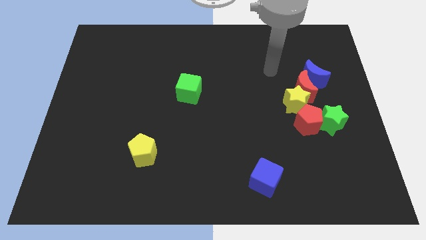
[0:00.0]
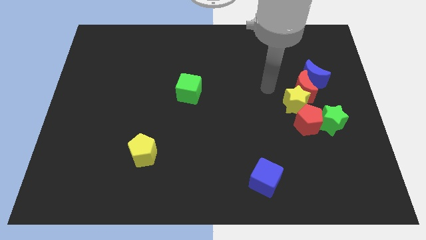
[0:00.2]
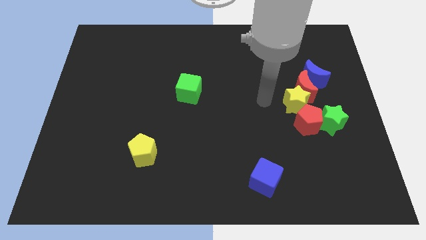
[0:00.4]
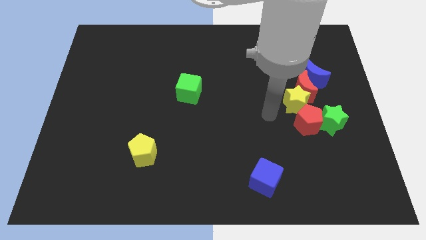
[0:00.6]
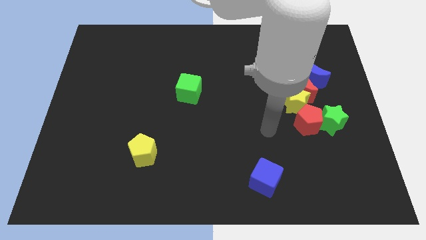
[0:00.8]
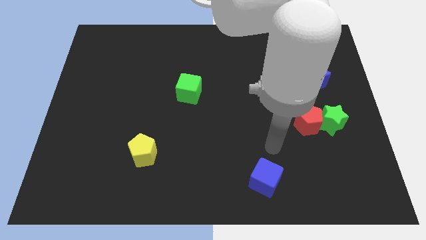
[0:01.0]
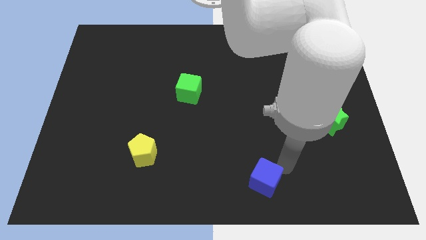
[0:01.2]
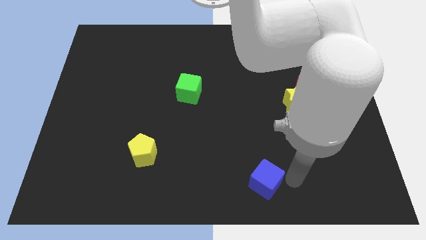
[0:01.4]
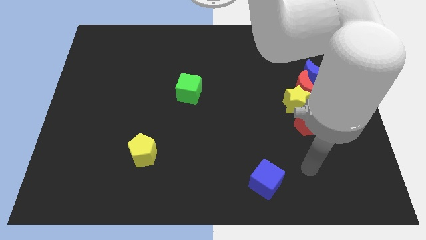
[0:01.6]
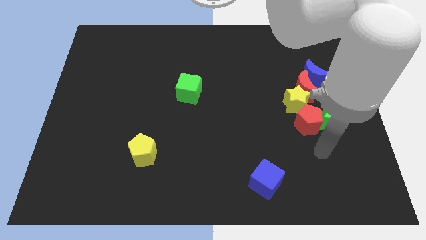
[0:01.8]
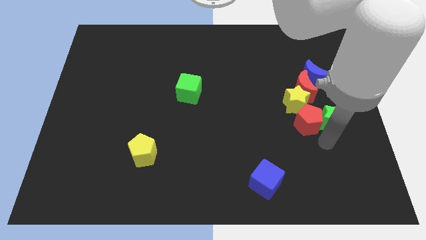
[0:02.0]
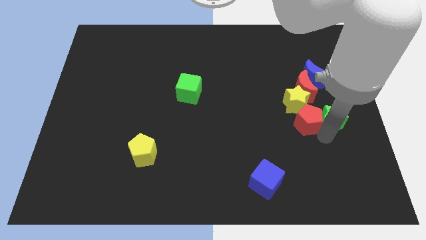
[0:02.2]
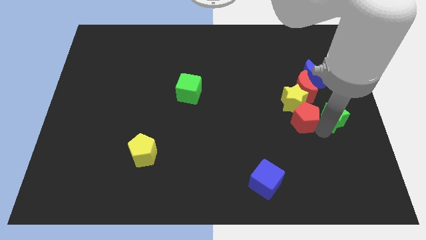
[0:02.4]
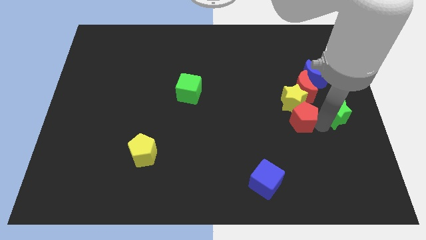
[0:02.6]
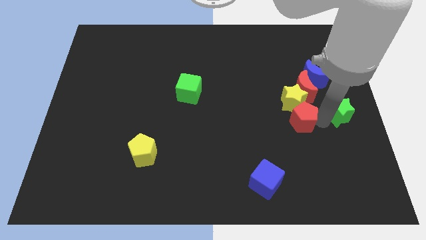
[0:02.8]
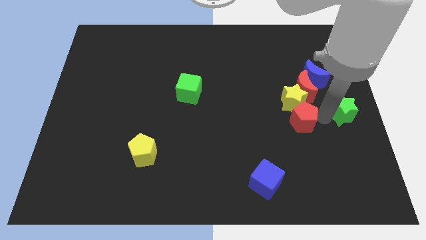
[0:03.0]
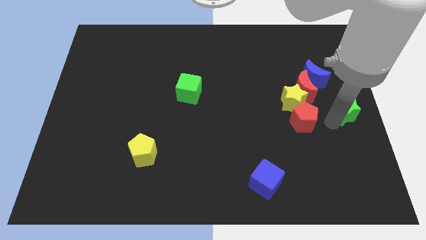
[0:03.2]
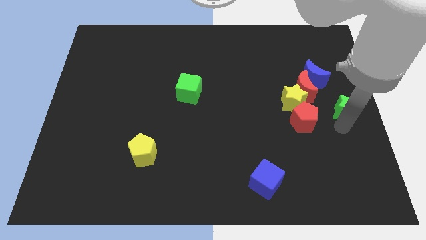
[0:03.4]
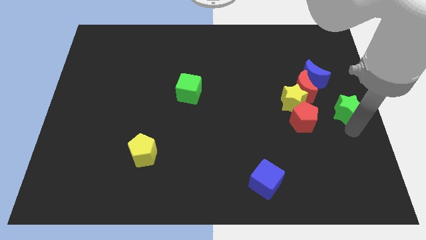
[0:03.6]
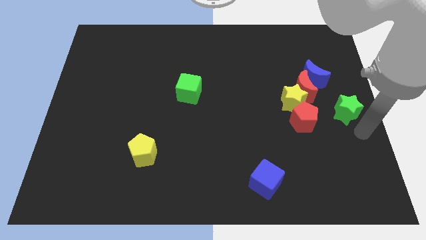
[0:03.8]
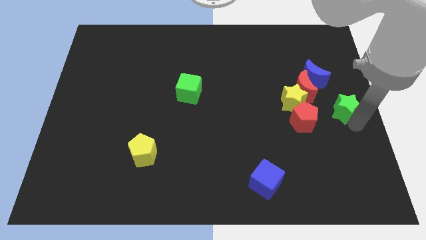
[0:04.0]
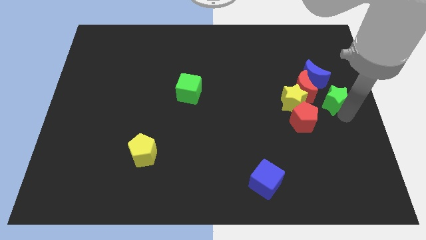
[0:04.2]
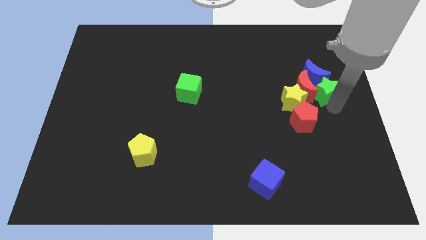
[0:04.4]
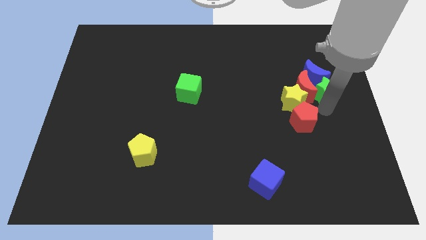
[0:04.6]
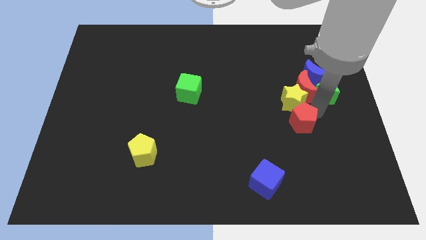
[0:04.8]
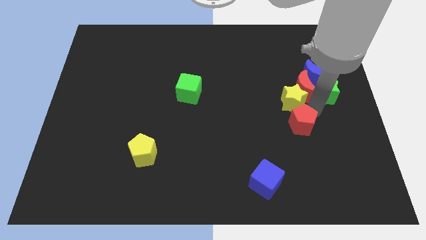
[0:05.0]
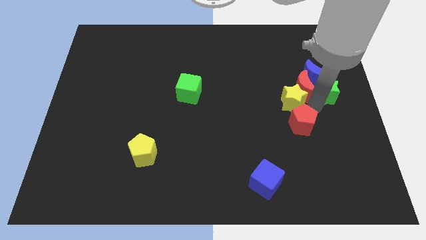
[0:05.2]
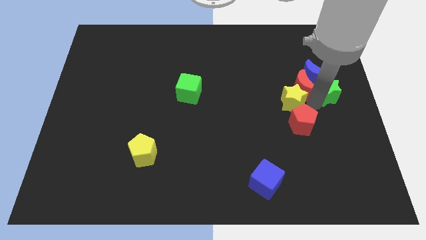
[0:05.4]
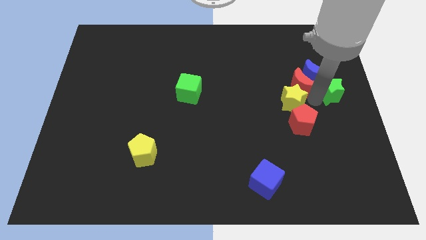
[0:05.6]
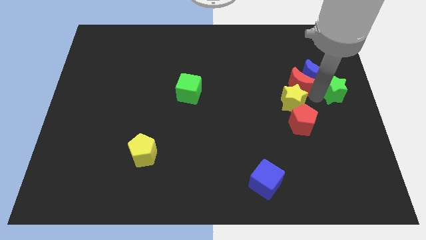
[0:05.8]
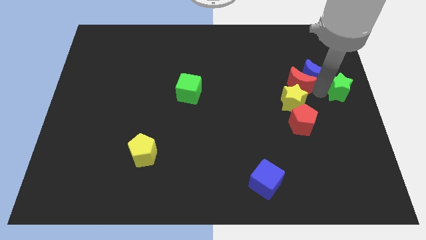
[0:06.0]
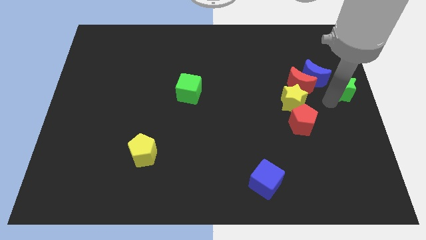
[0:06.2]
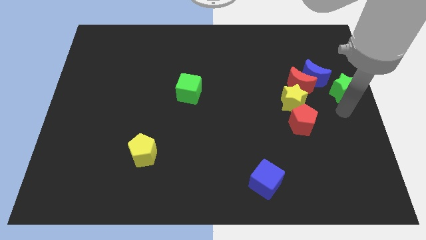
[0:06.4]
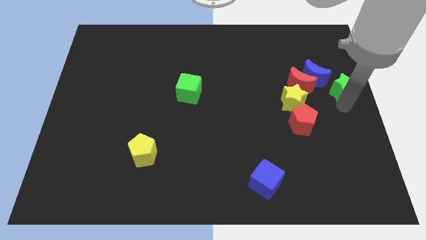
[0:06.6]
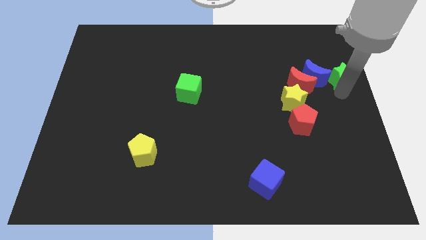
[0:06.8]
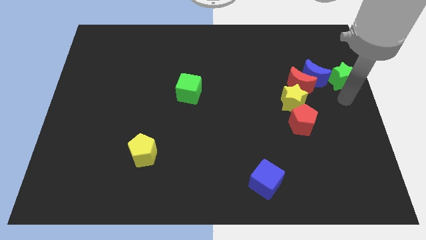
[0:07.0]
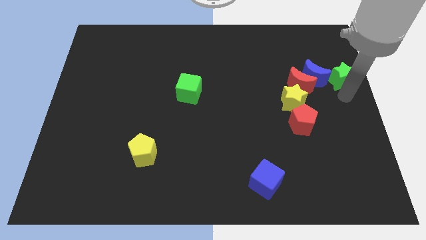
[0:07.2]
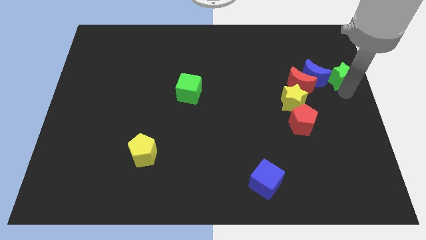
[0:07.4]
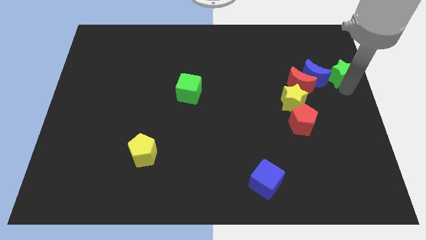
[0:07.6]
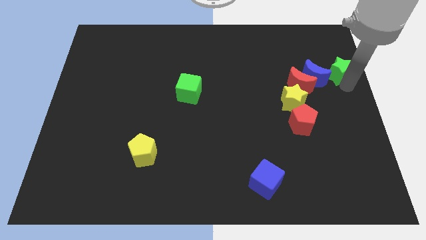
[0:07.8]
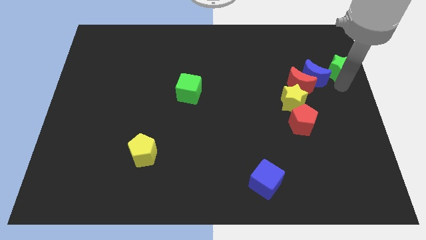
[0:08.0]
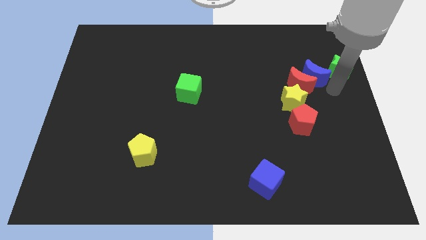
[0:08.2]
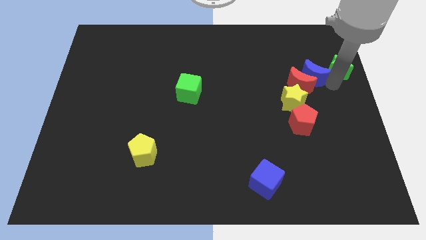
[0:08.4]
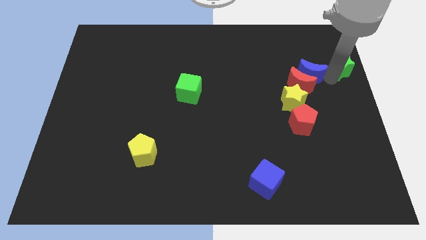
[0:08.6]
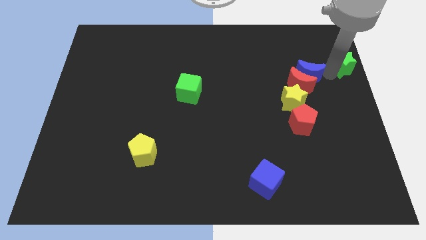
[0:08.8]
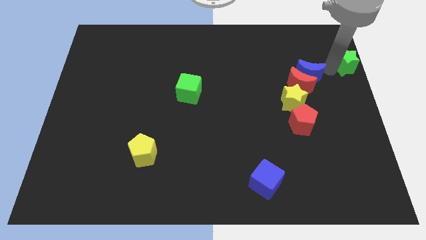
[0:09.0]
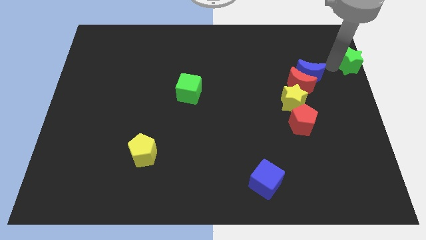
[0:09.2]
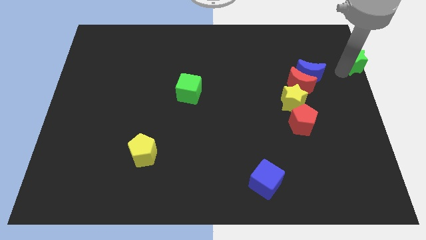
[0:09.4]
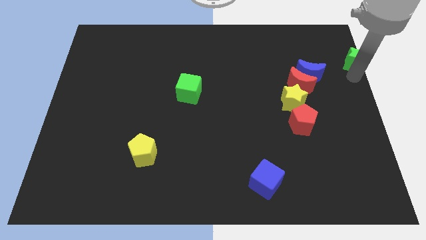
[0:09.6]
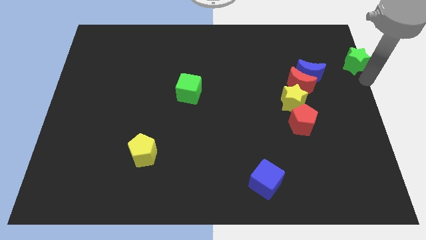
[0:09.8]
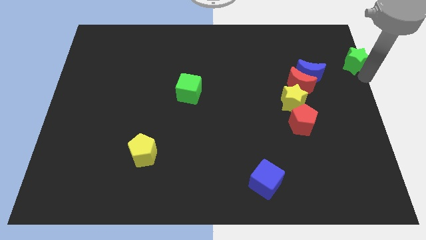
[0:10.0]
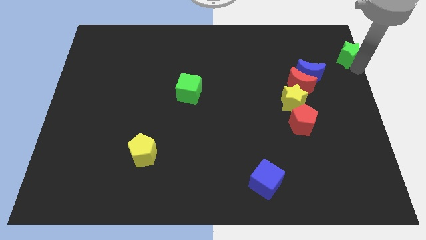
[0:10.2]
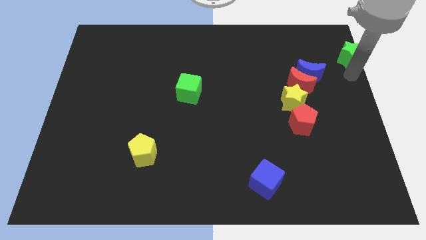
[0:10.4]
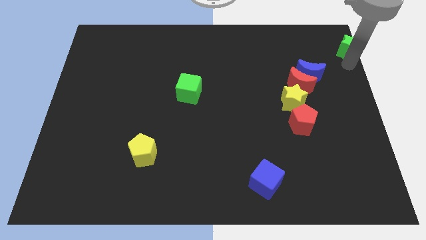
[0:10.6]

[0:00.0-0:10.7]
slide the green star to the top right

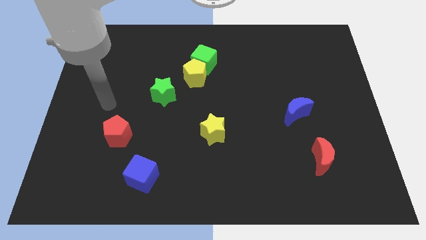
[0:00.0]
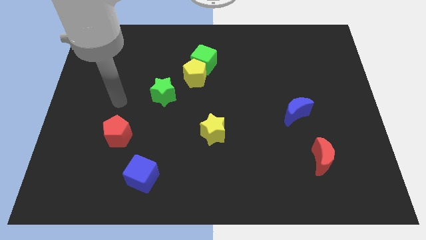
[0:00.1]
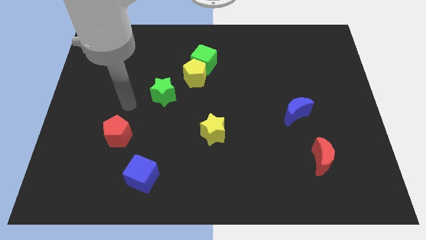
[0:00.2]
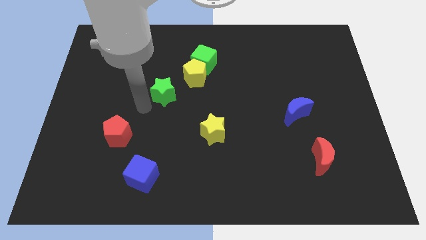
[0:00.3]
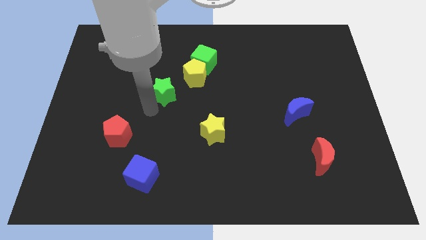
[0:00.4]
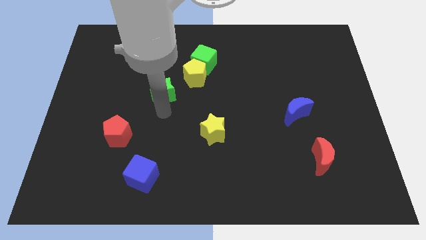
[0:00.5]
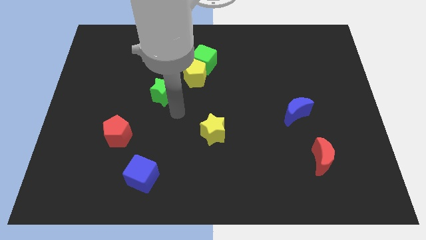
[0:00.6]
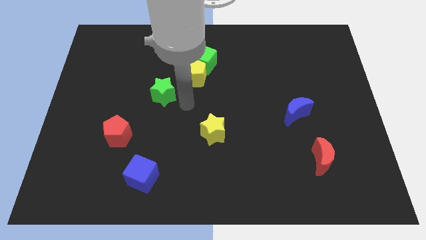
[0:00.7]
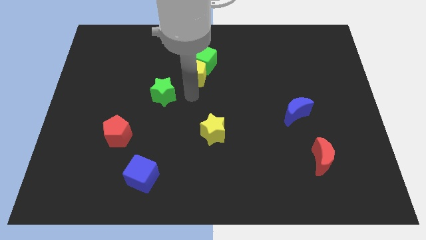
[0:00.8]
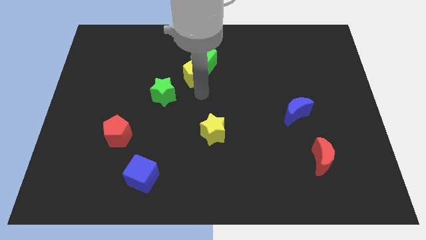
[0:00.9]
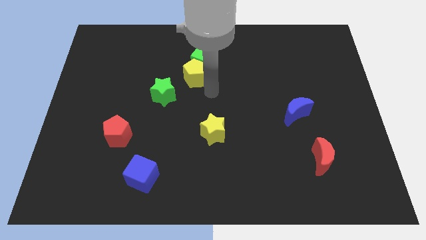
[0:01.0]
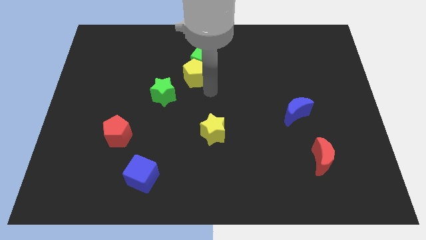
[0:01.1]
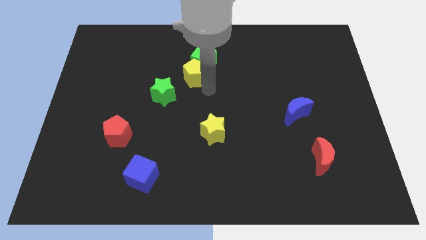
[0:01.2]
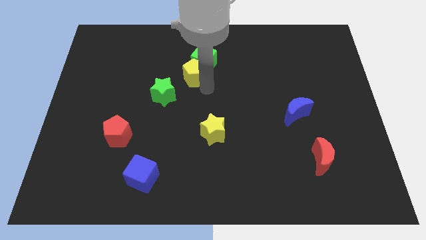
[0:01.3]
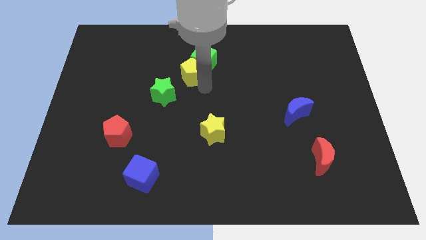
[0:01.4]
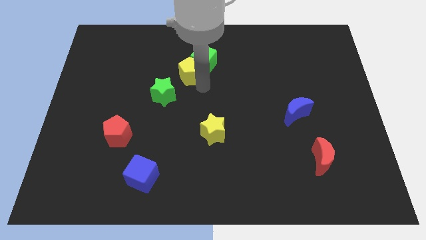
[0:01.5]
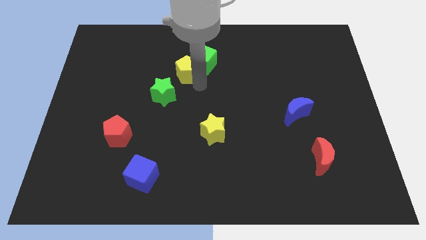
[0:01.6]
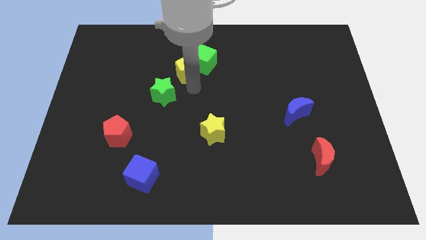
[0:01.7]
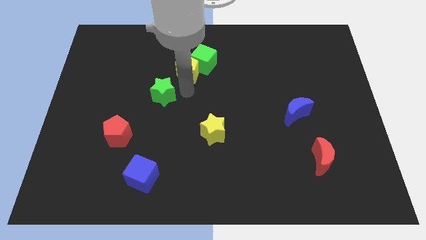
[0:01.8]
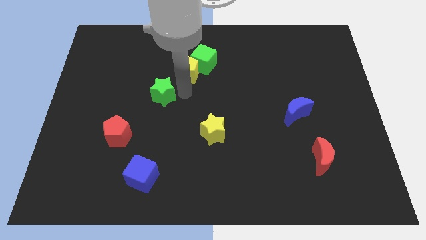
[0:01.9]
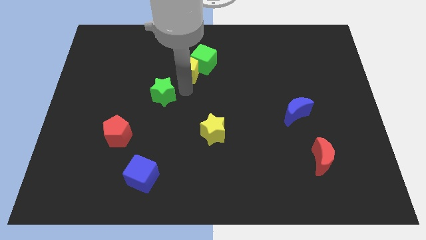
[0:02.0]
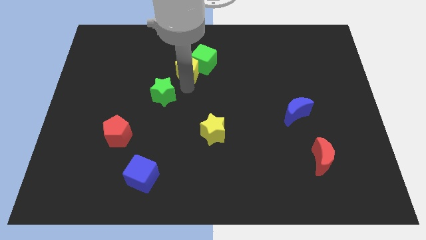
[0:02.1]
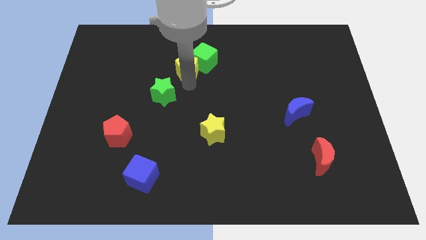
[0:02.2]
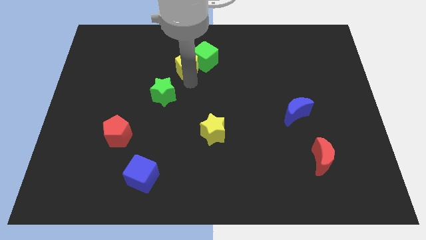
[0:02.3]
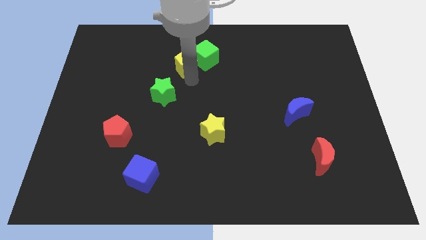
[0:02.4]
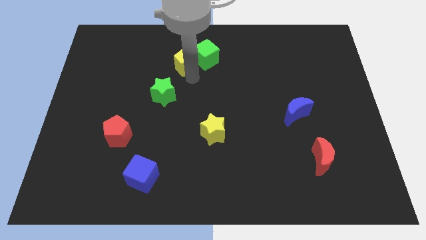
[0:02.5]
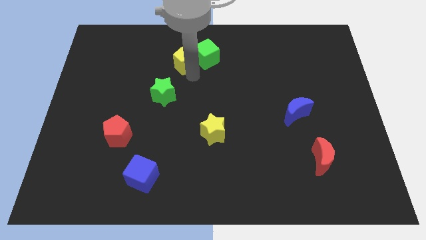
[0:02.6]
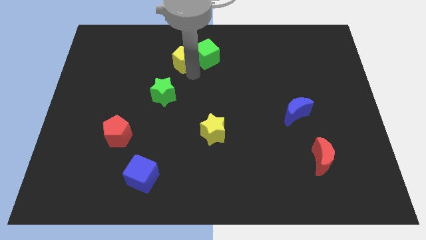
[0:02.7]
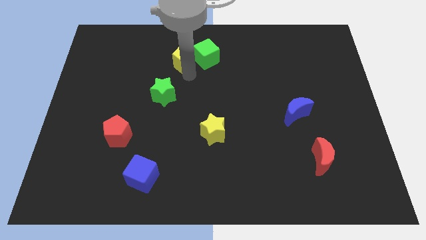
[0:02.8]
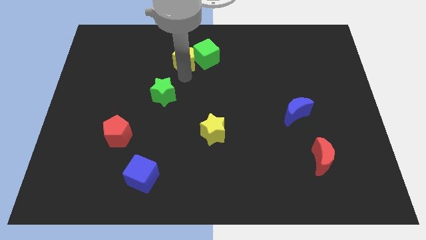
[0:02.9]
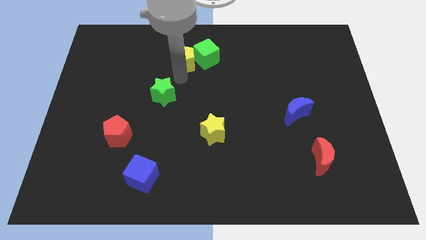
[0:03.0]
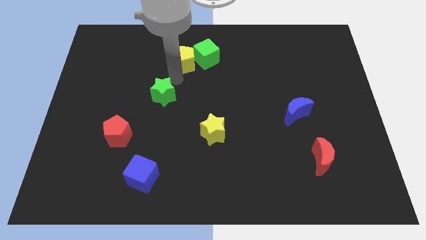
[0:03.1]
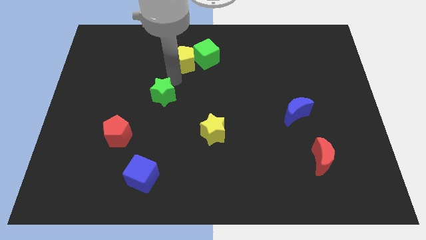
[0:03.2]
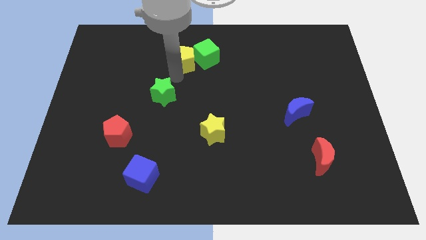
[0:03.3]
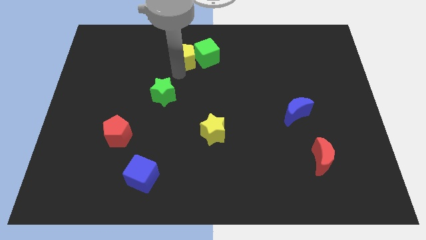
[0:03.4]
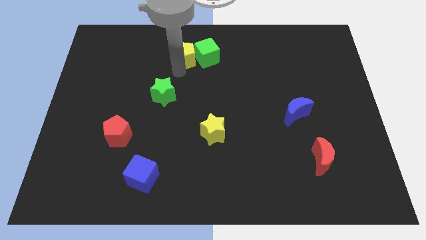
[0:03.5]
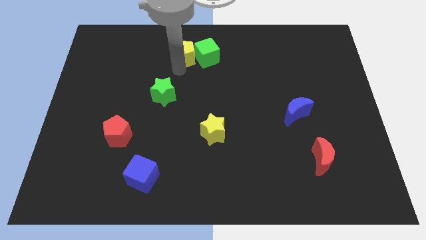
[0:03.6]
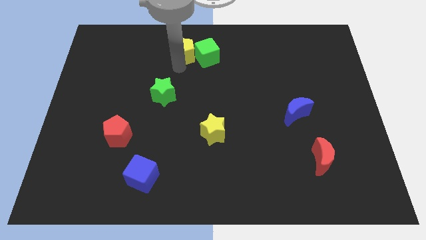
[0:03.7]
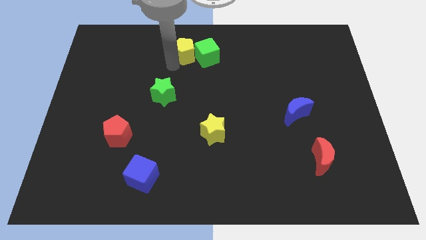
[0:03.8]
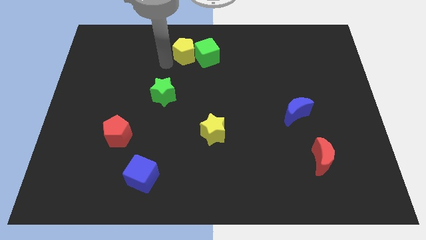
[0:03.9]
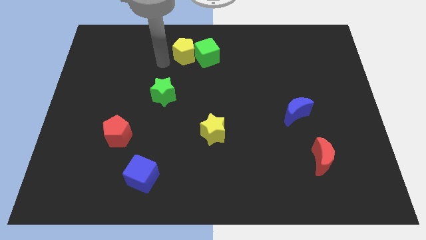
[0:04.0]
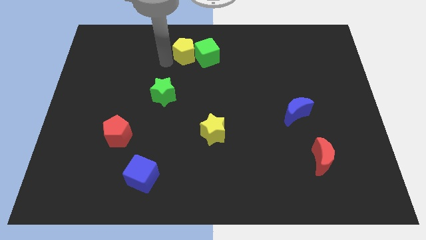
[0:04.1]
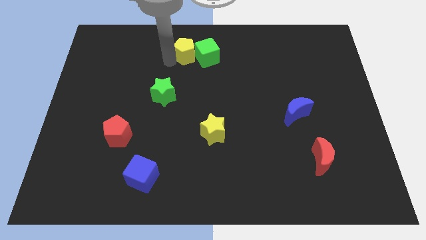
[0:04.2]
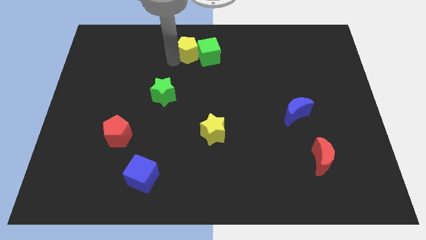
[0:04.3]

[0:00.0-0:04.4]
move the yellow pentagon to the top side
